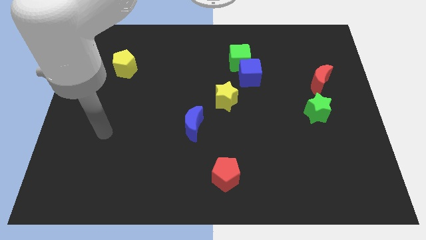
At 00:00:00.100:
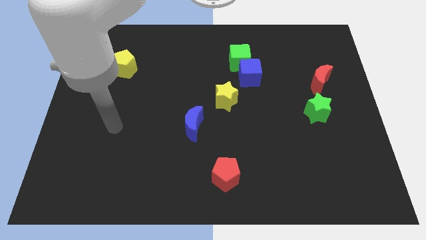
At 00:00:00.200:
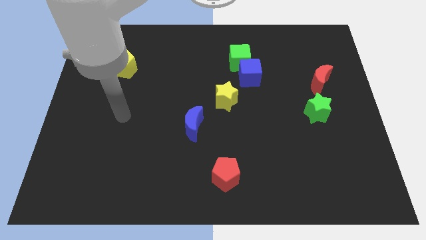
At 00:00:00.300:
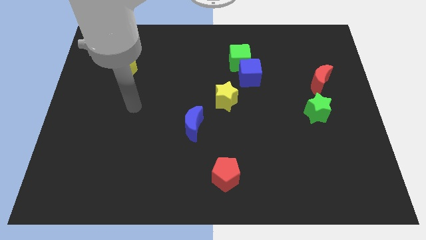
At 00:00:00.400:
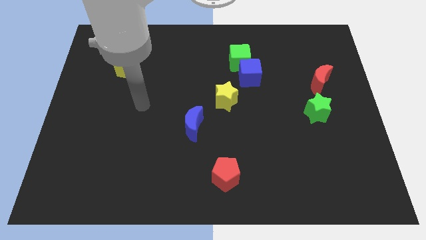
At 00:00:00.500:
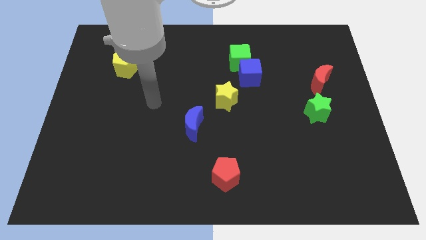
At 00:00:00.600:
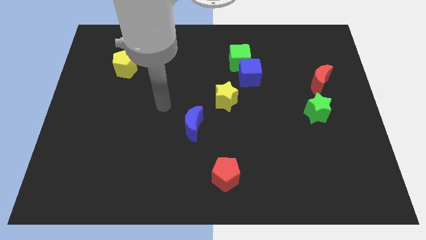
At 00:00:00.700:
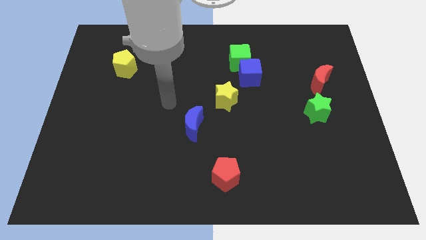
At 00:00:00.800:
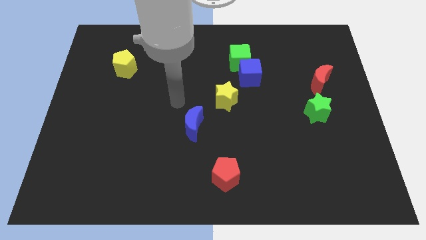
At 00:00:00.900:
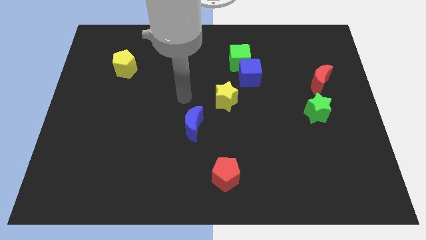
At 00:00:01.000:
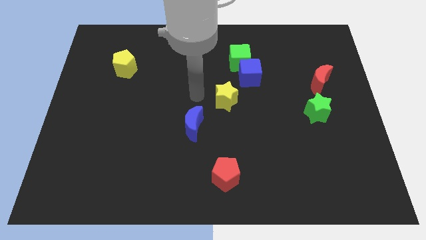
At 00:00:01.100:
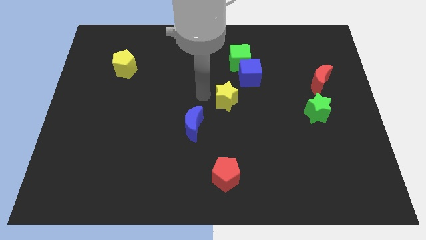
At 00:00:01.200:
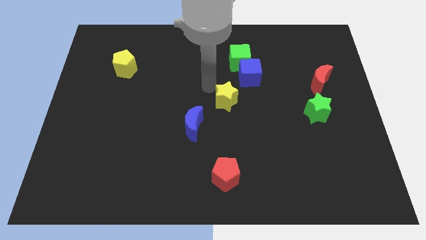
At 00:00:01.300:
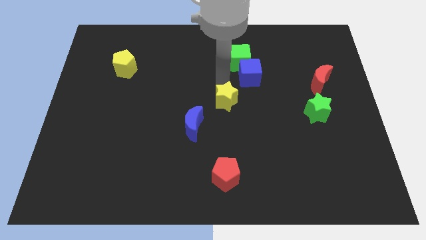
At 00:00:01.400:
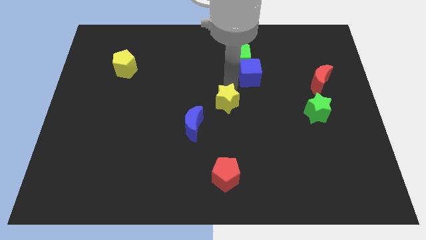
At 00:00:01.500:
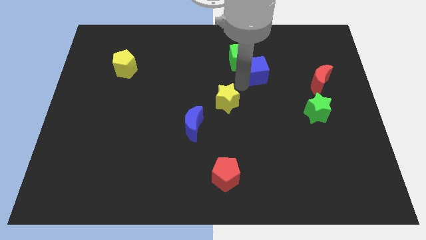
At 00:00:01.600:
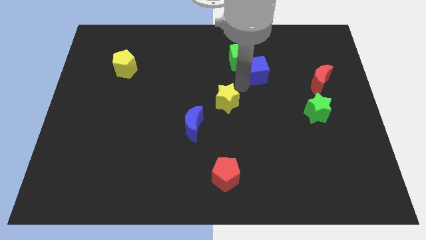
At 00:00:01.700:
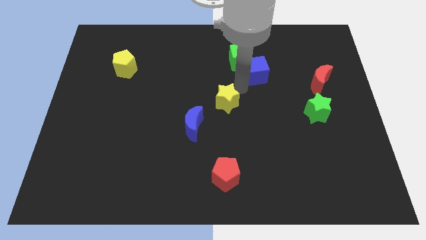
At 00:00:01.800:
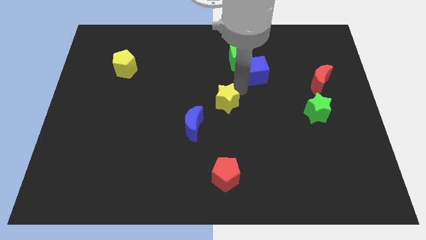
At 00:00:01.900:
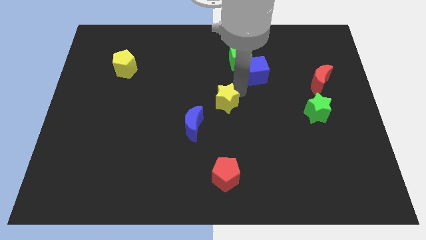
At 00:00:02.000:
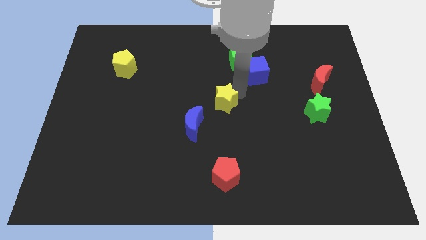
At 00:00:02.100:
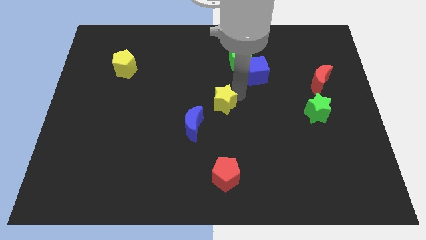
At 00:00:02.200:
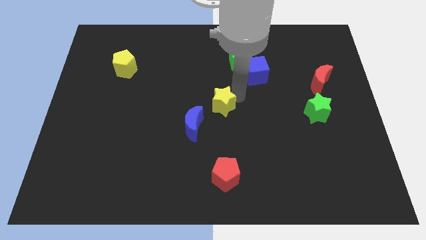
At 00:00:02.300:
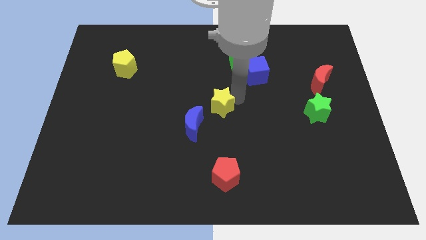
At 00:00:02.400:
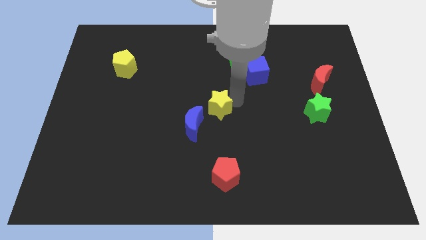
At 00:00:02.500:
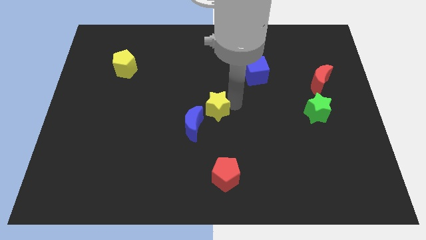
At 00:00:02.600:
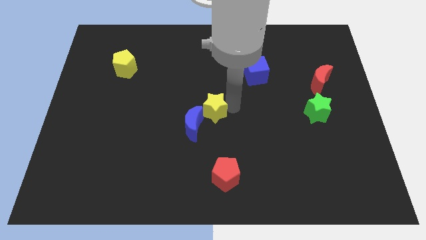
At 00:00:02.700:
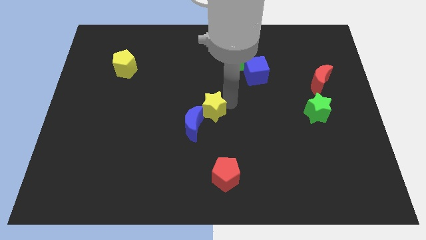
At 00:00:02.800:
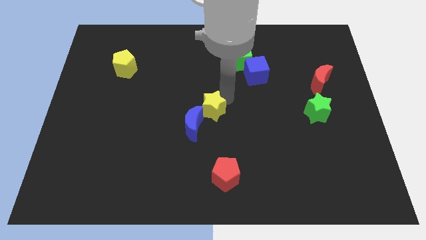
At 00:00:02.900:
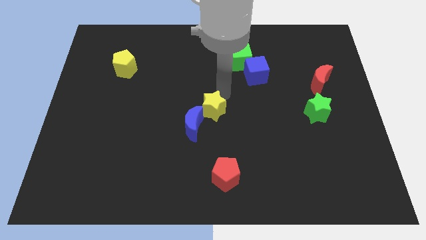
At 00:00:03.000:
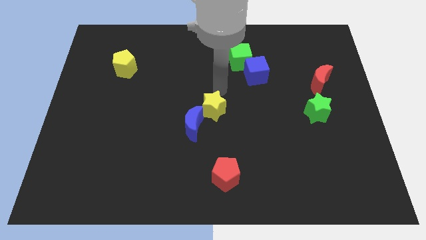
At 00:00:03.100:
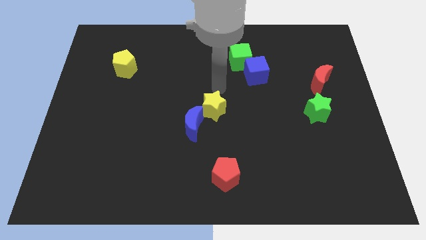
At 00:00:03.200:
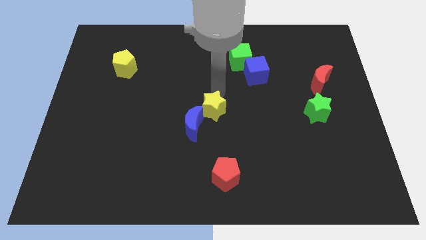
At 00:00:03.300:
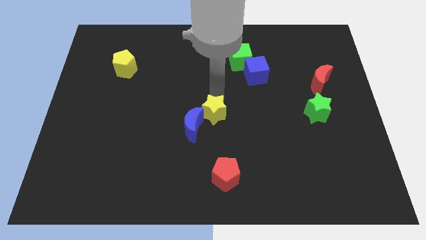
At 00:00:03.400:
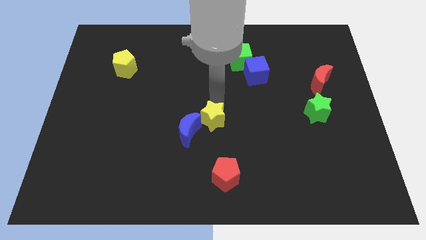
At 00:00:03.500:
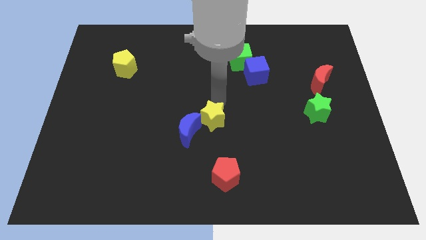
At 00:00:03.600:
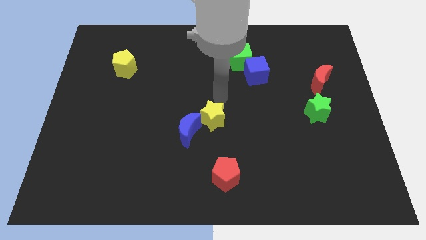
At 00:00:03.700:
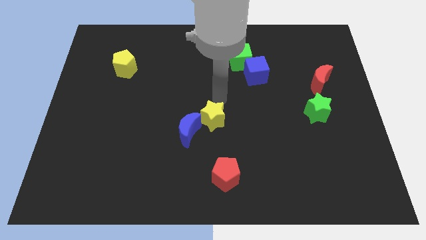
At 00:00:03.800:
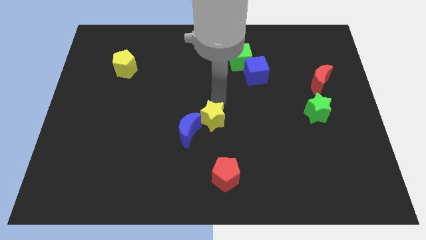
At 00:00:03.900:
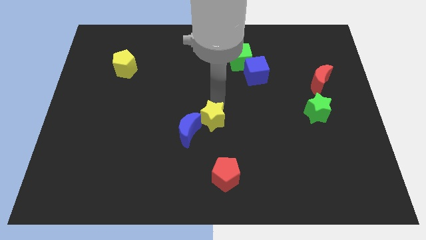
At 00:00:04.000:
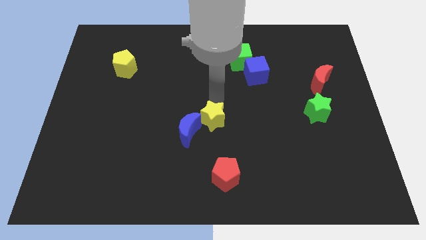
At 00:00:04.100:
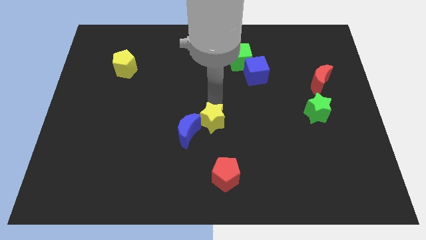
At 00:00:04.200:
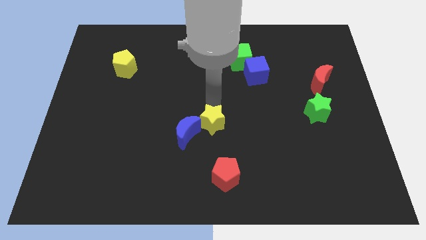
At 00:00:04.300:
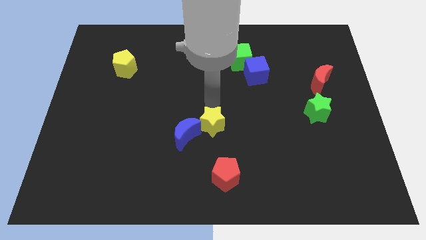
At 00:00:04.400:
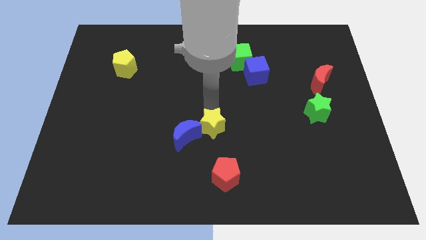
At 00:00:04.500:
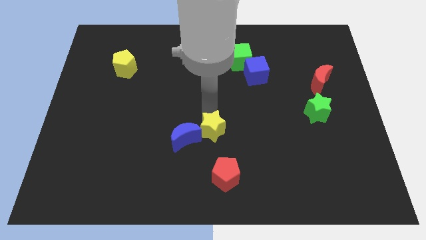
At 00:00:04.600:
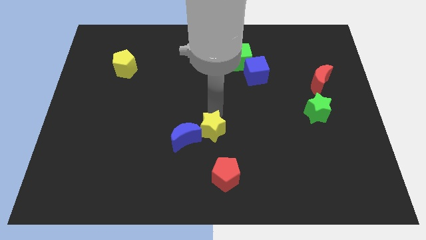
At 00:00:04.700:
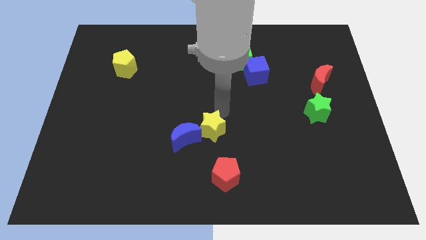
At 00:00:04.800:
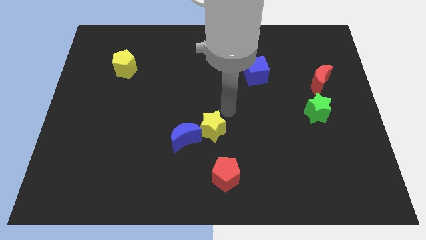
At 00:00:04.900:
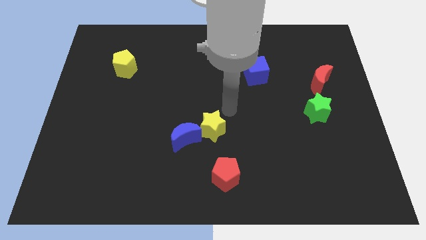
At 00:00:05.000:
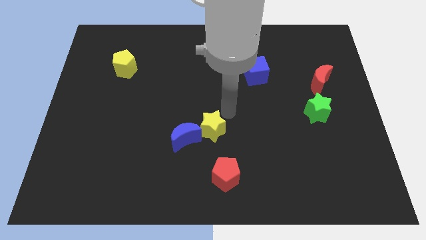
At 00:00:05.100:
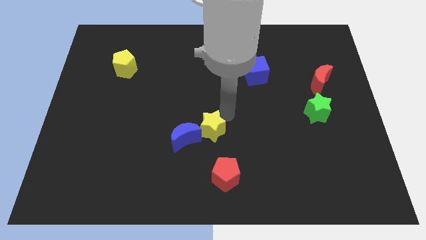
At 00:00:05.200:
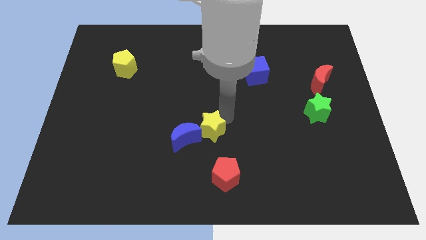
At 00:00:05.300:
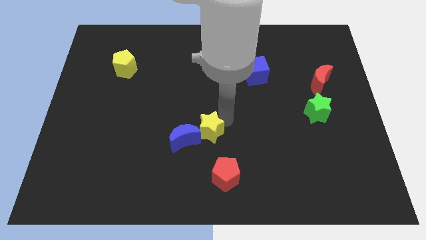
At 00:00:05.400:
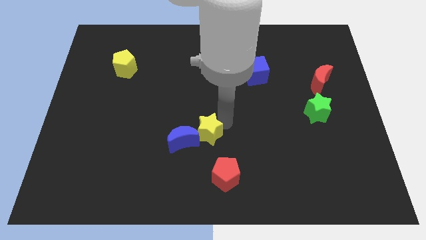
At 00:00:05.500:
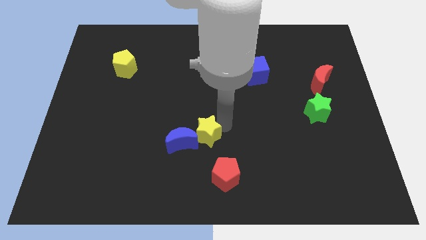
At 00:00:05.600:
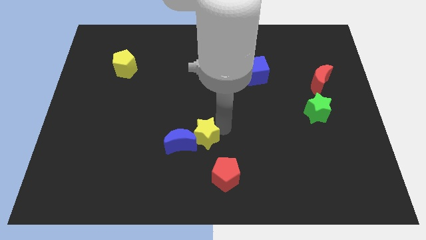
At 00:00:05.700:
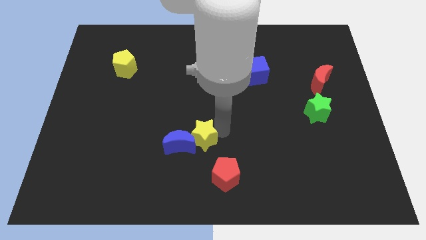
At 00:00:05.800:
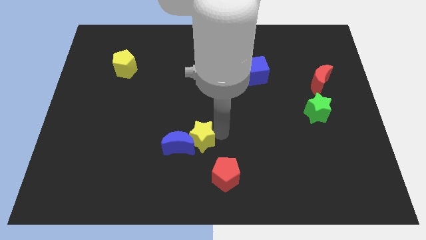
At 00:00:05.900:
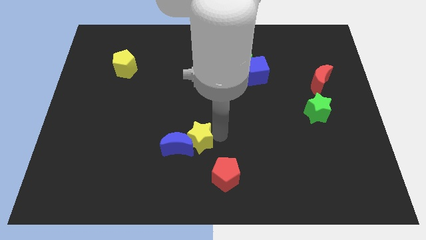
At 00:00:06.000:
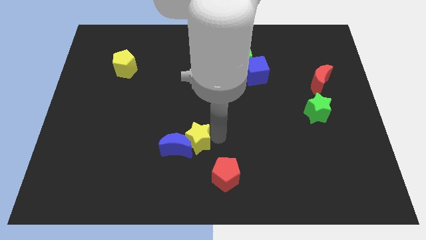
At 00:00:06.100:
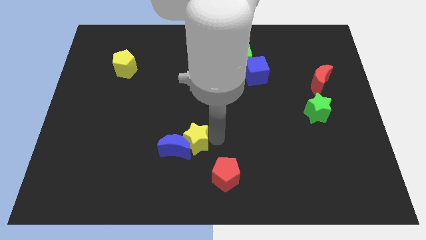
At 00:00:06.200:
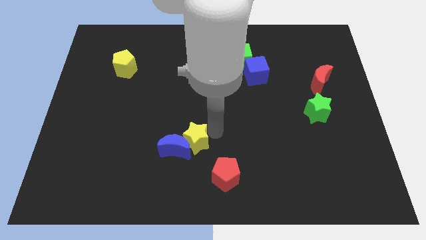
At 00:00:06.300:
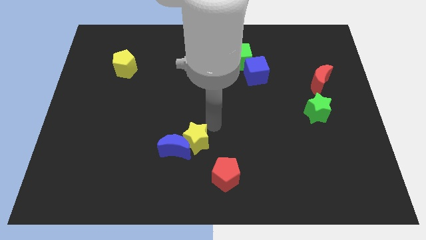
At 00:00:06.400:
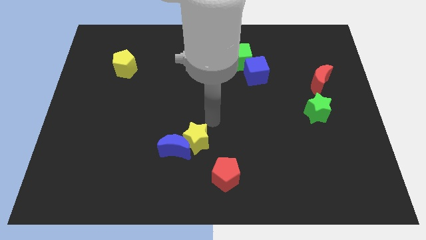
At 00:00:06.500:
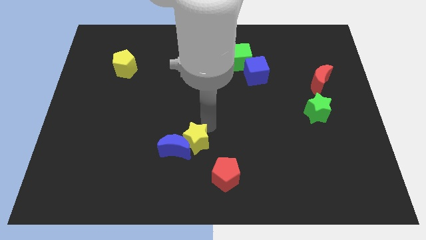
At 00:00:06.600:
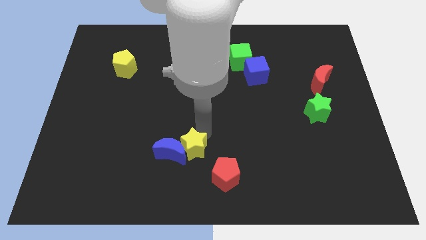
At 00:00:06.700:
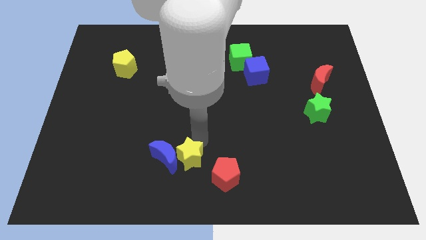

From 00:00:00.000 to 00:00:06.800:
push the yellow star just left of the red pentagon

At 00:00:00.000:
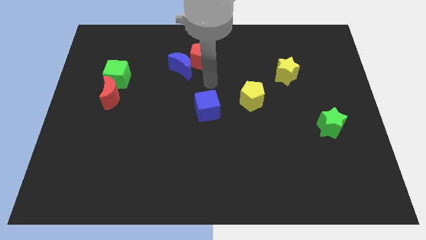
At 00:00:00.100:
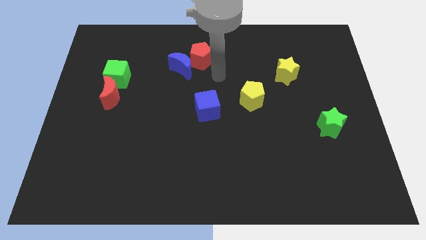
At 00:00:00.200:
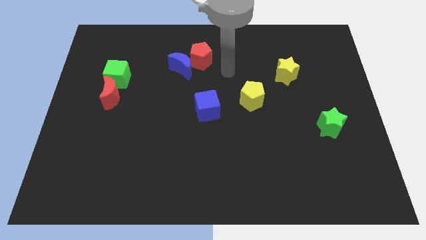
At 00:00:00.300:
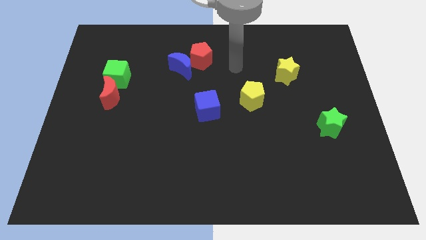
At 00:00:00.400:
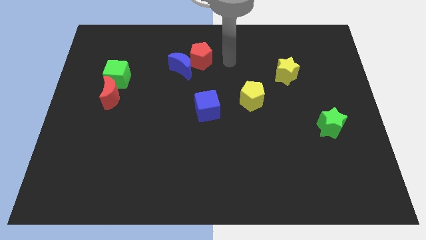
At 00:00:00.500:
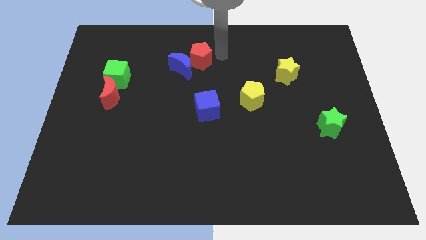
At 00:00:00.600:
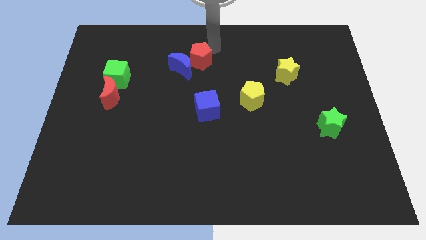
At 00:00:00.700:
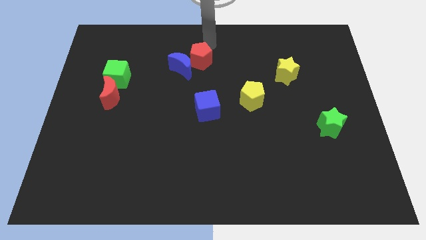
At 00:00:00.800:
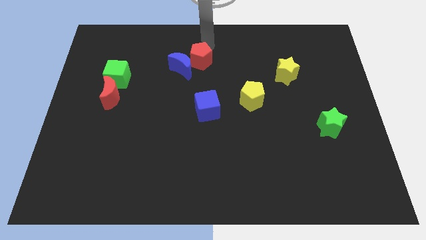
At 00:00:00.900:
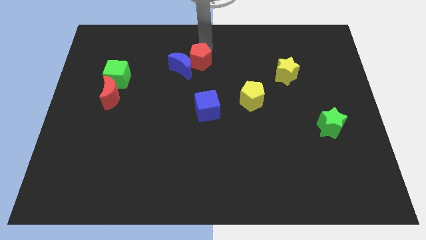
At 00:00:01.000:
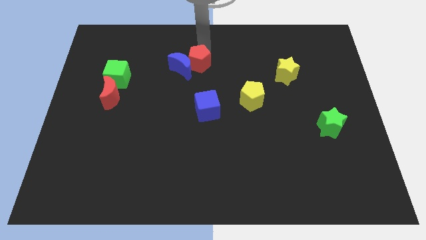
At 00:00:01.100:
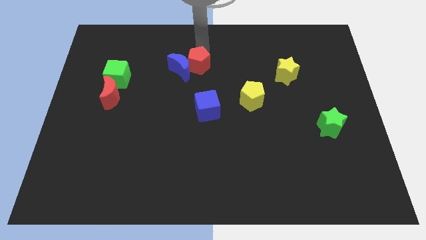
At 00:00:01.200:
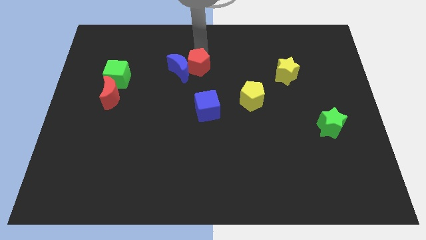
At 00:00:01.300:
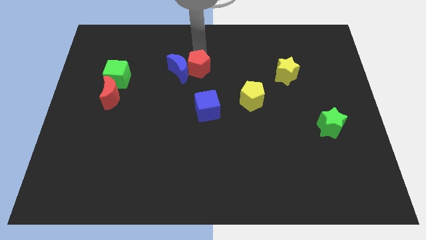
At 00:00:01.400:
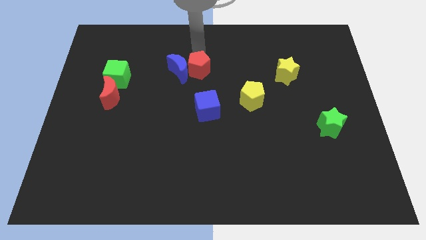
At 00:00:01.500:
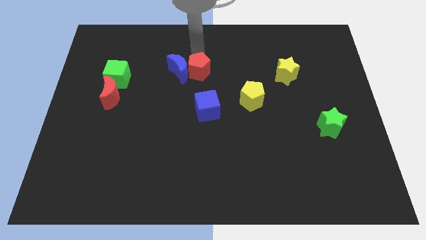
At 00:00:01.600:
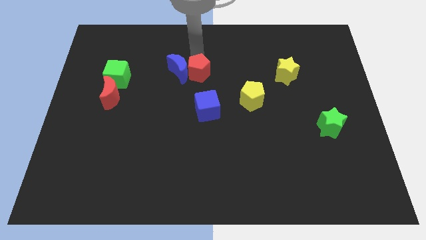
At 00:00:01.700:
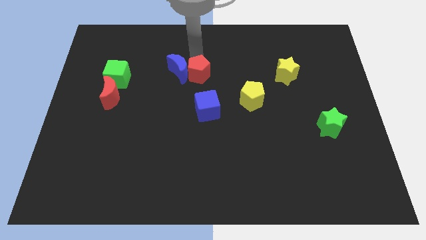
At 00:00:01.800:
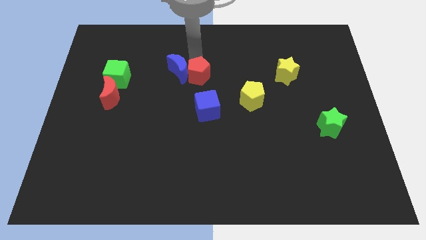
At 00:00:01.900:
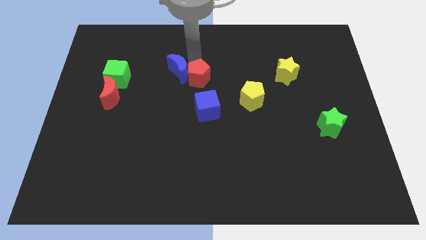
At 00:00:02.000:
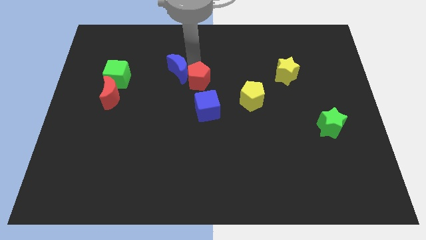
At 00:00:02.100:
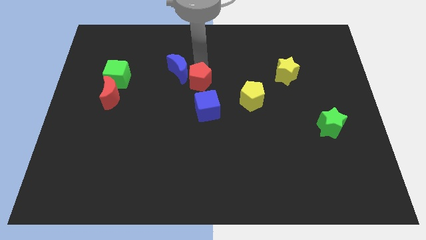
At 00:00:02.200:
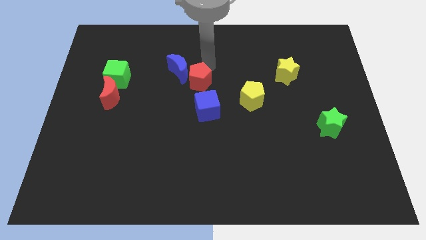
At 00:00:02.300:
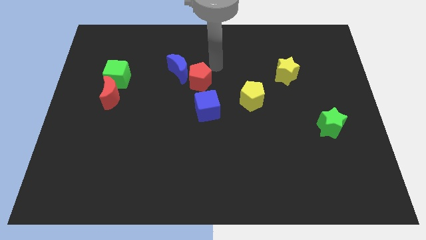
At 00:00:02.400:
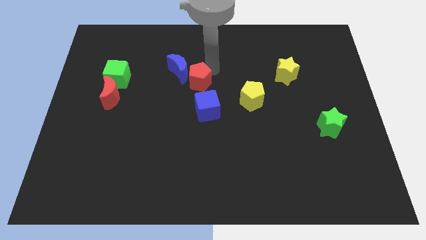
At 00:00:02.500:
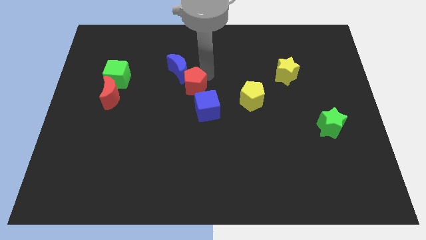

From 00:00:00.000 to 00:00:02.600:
slide the red pentagon below the blue moon
